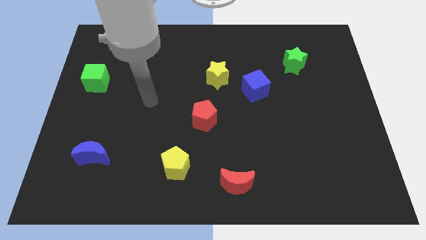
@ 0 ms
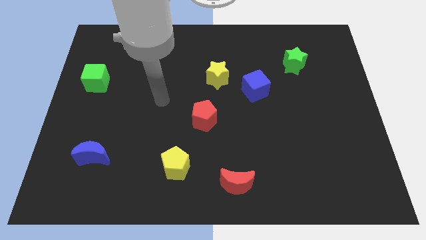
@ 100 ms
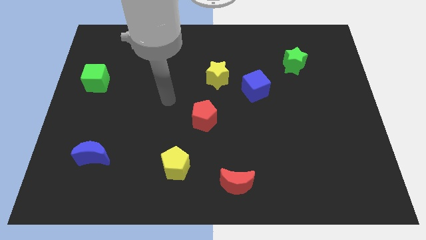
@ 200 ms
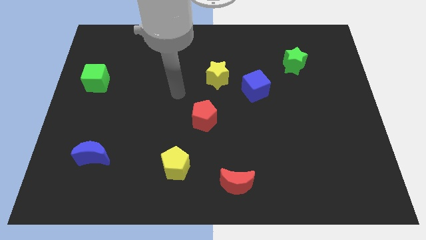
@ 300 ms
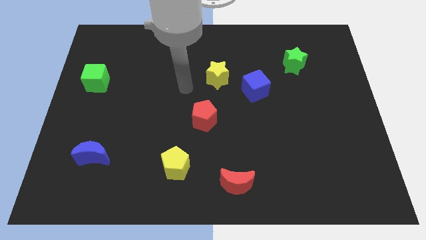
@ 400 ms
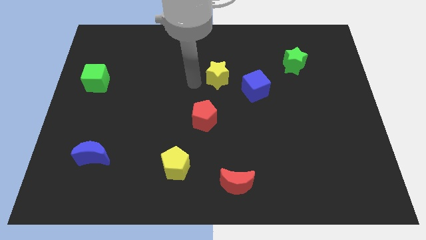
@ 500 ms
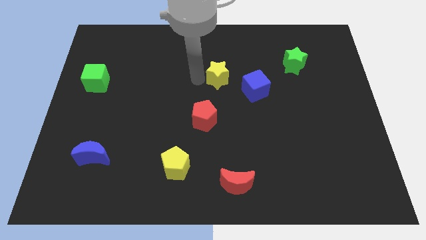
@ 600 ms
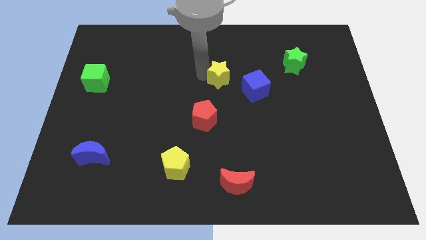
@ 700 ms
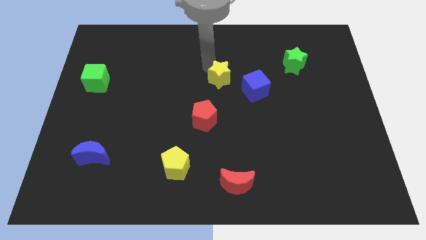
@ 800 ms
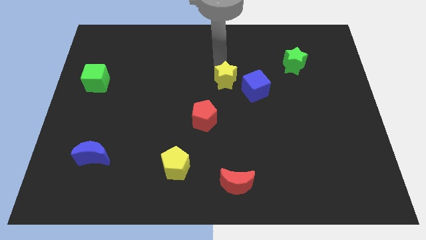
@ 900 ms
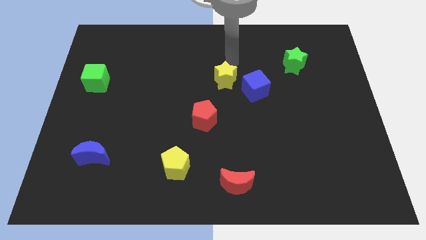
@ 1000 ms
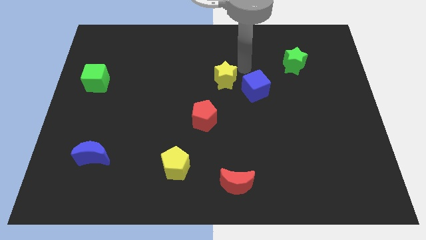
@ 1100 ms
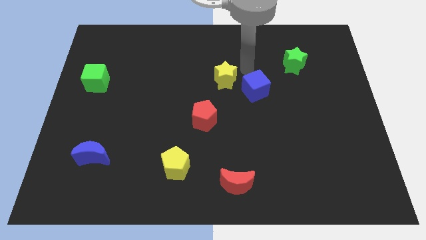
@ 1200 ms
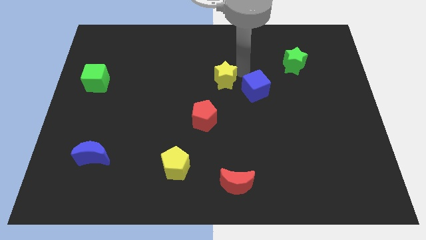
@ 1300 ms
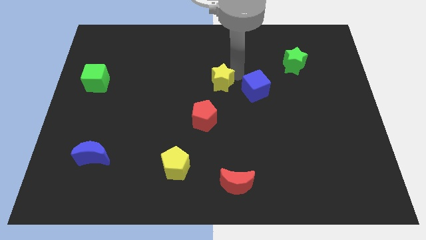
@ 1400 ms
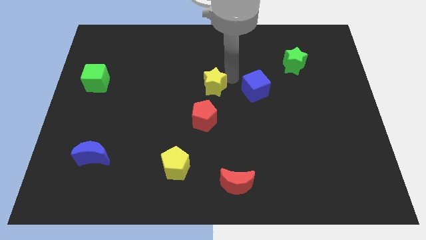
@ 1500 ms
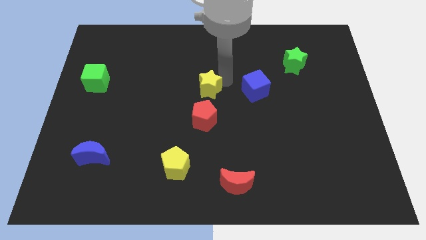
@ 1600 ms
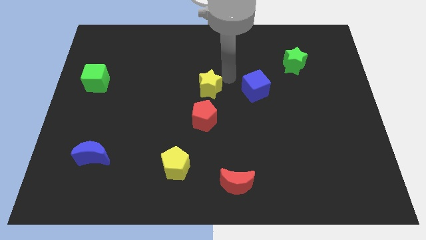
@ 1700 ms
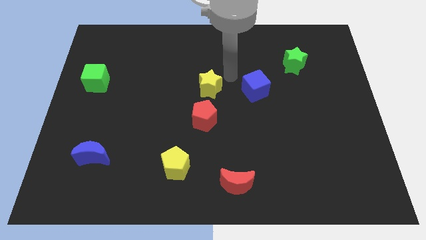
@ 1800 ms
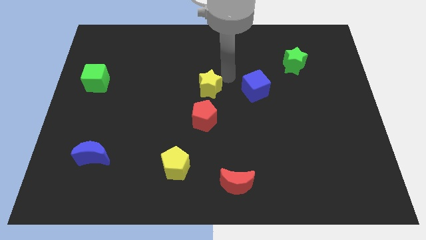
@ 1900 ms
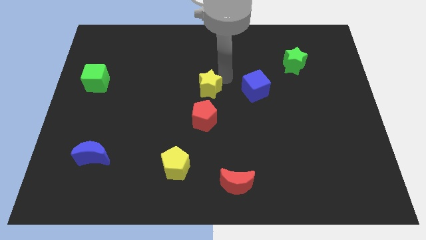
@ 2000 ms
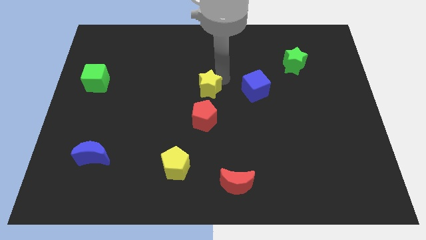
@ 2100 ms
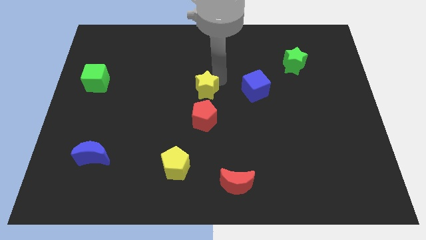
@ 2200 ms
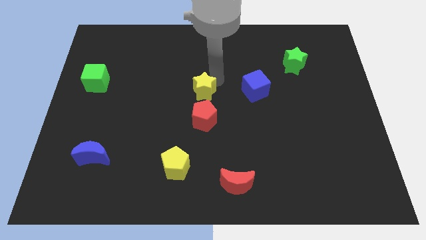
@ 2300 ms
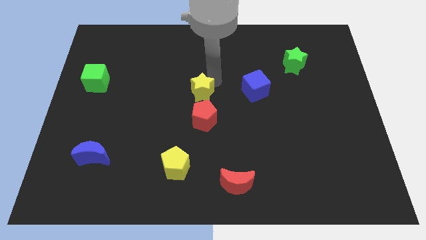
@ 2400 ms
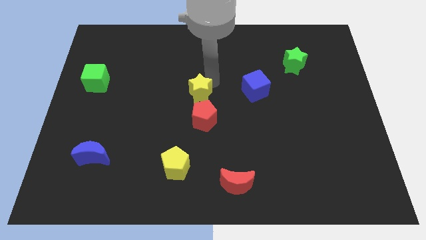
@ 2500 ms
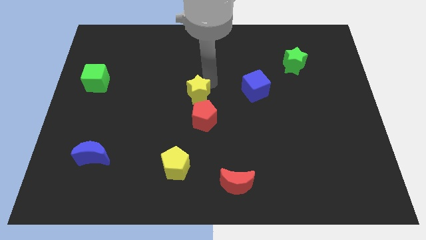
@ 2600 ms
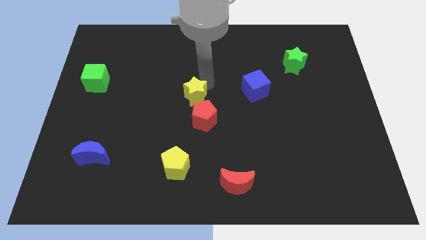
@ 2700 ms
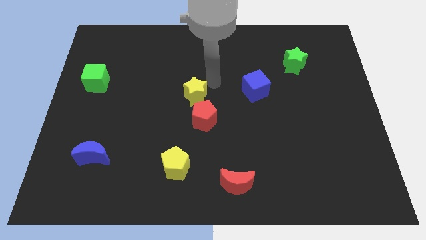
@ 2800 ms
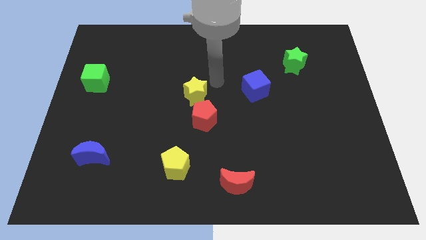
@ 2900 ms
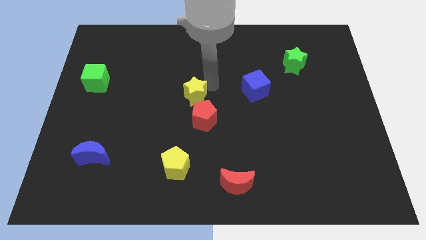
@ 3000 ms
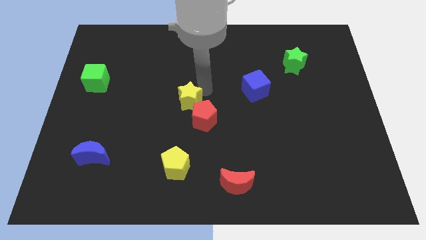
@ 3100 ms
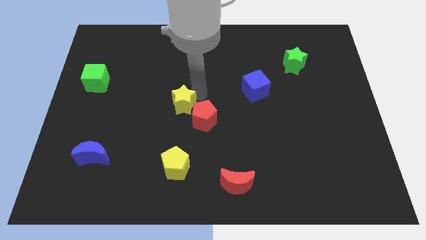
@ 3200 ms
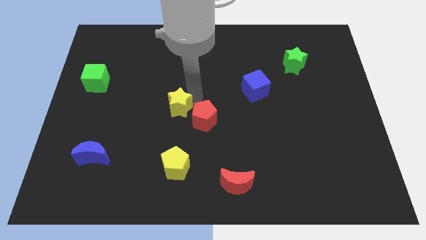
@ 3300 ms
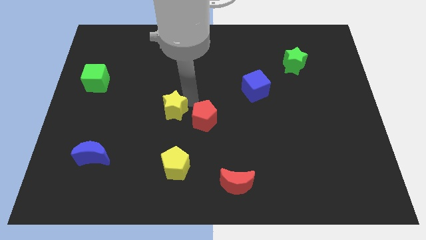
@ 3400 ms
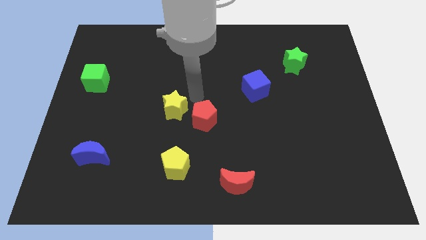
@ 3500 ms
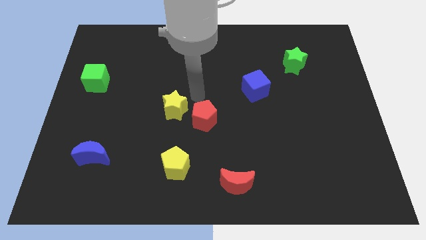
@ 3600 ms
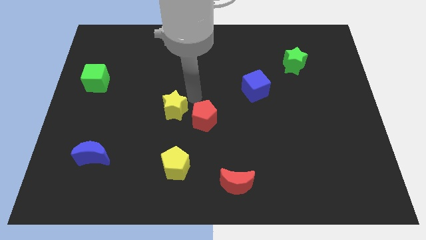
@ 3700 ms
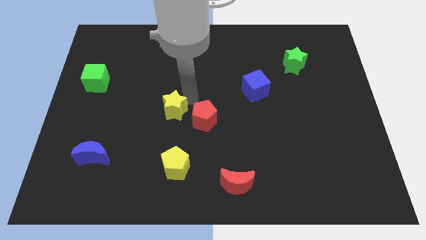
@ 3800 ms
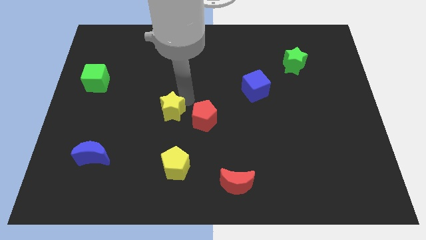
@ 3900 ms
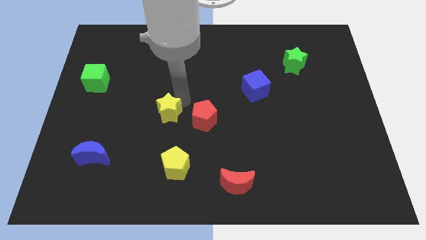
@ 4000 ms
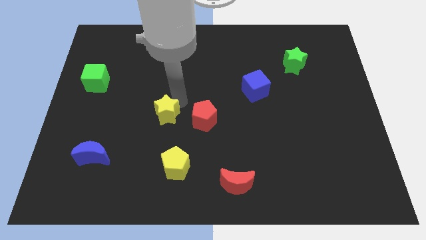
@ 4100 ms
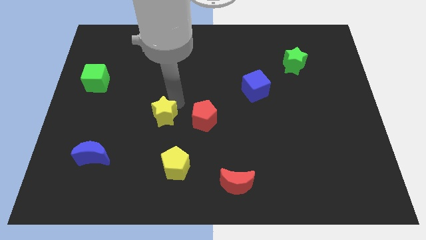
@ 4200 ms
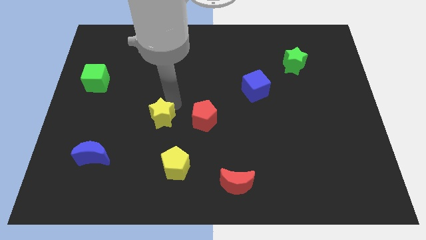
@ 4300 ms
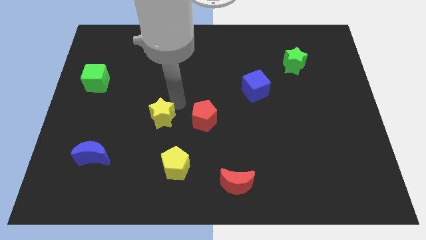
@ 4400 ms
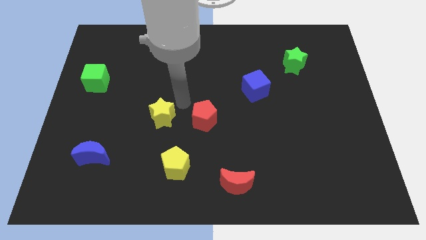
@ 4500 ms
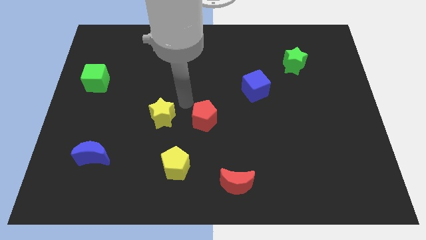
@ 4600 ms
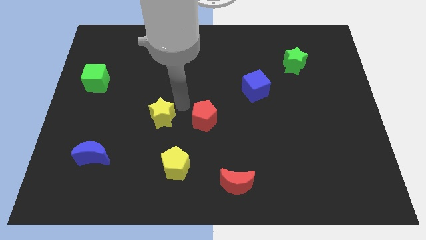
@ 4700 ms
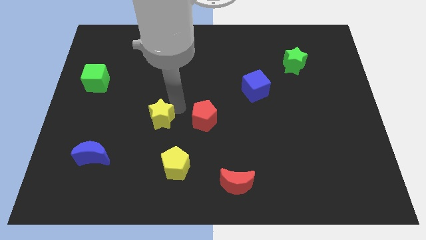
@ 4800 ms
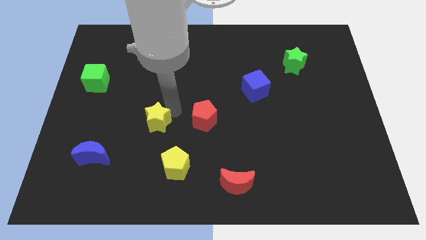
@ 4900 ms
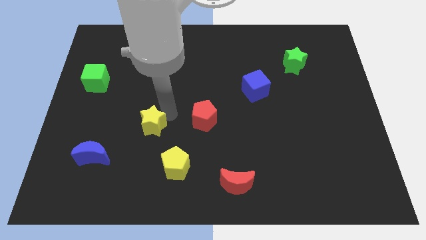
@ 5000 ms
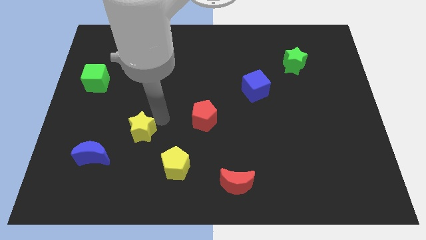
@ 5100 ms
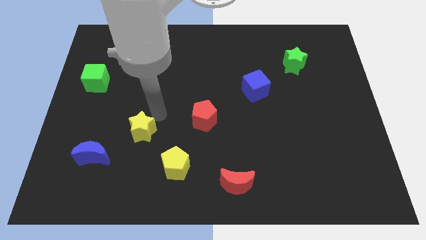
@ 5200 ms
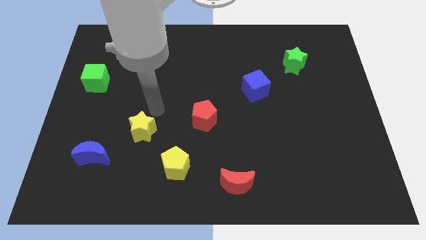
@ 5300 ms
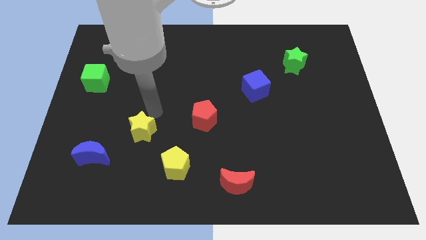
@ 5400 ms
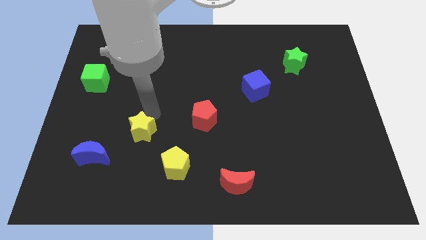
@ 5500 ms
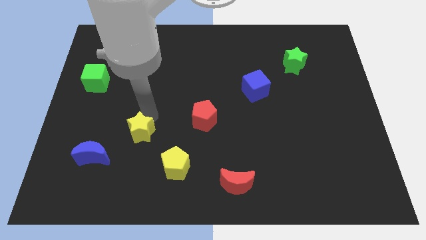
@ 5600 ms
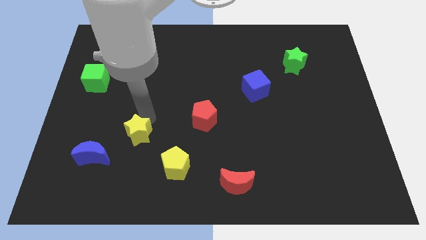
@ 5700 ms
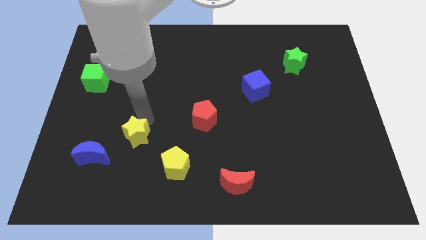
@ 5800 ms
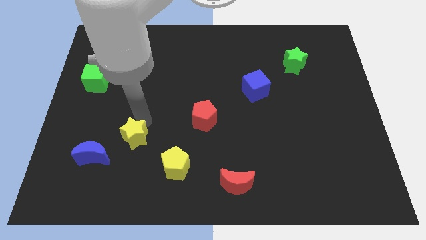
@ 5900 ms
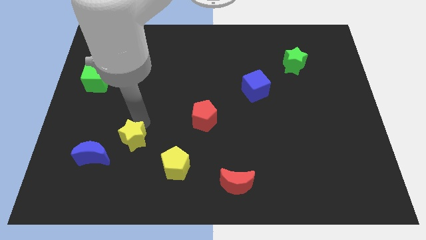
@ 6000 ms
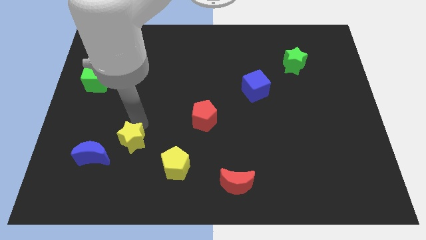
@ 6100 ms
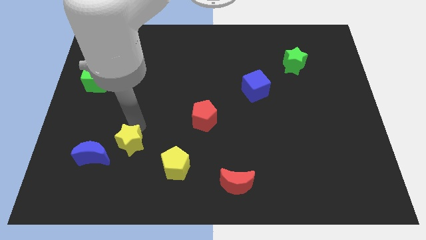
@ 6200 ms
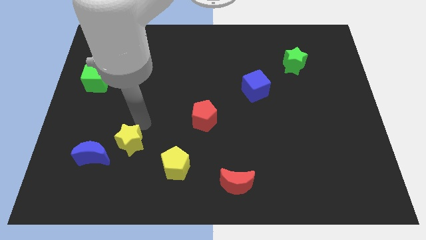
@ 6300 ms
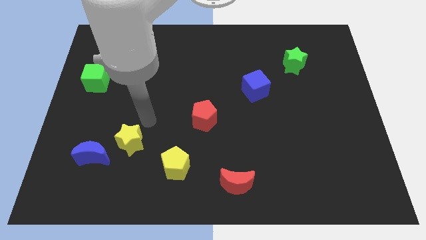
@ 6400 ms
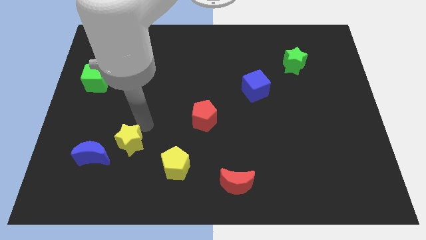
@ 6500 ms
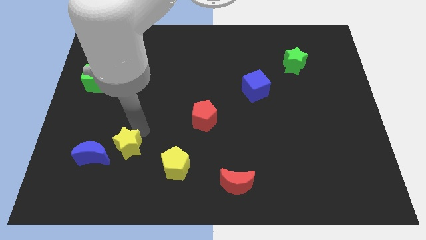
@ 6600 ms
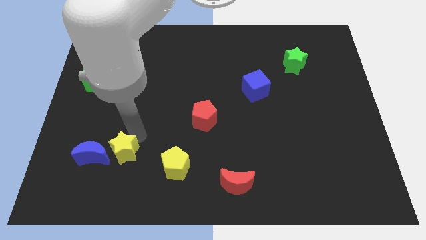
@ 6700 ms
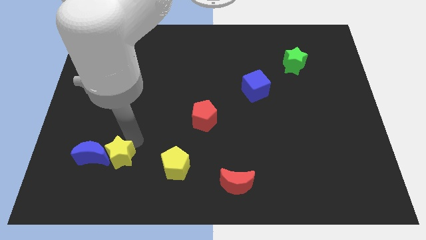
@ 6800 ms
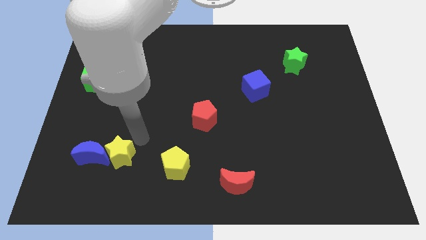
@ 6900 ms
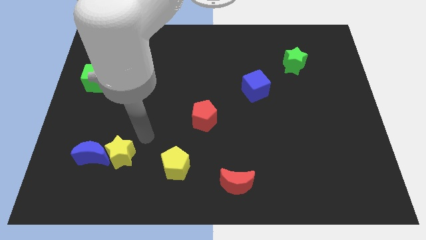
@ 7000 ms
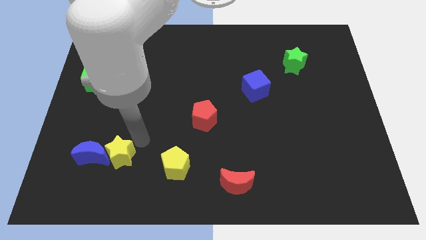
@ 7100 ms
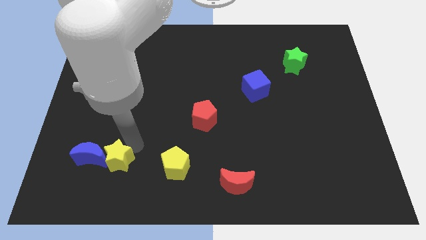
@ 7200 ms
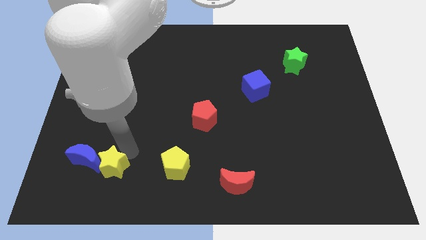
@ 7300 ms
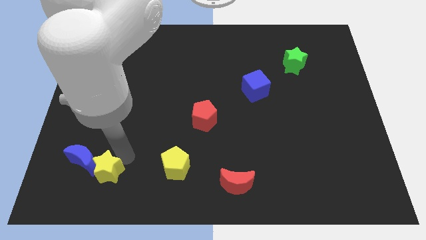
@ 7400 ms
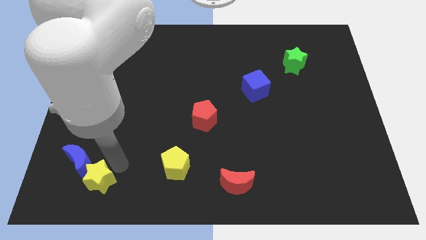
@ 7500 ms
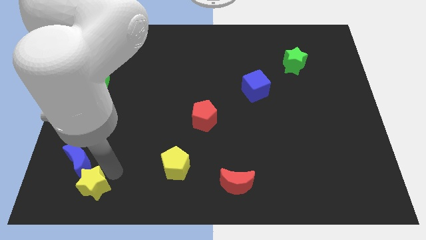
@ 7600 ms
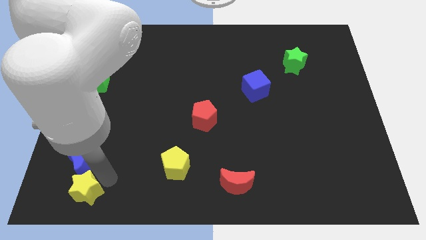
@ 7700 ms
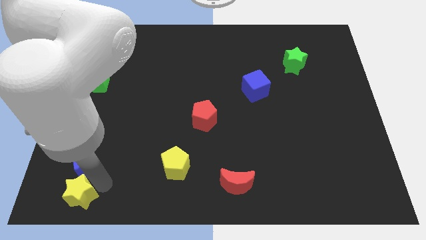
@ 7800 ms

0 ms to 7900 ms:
push the yellow star to the bottom left
